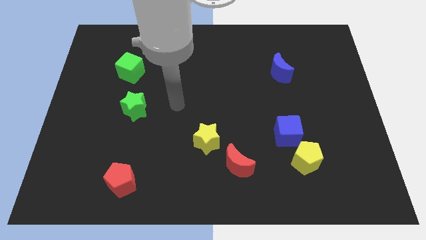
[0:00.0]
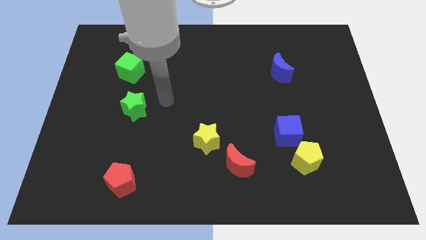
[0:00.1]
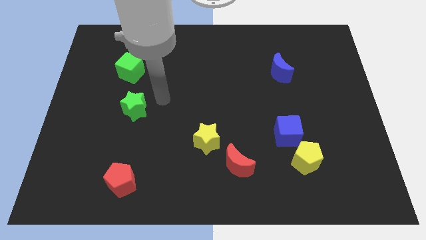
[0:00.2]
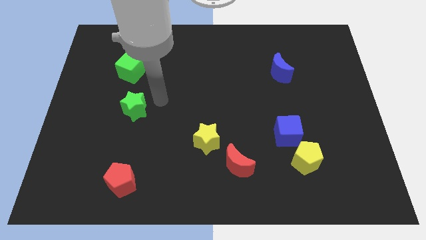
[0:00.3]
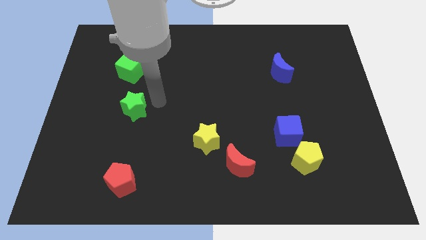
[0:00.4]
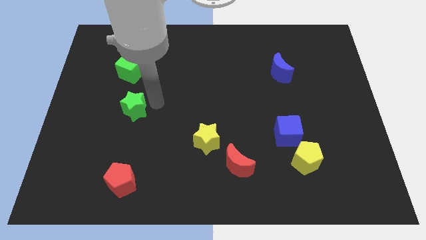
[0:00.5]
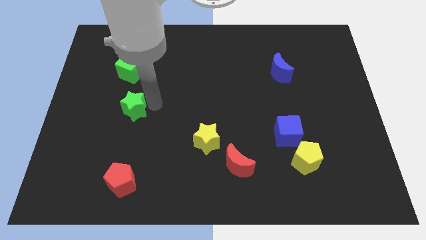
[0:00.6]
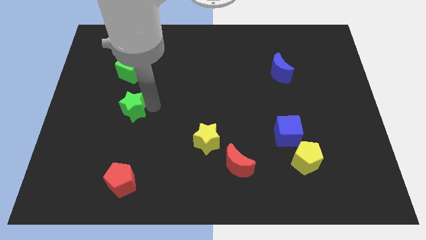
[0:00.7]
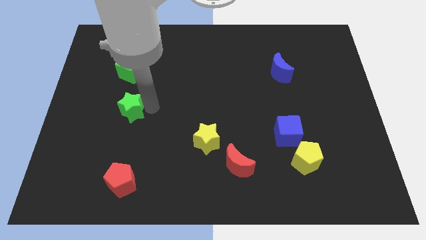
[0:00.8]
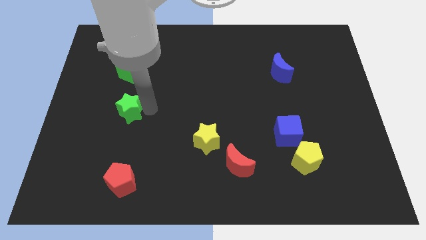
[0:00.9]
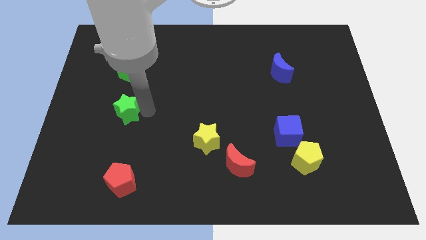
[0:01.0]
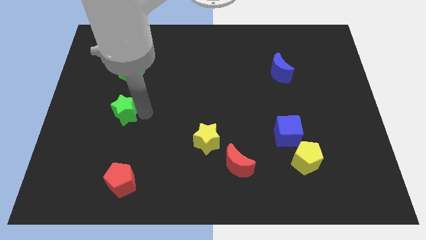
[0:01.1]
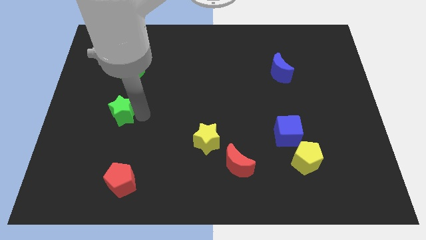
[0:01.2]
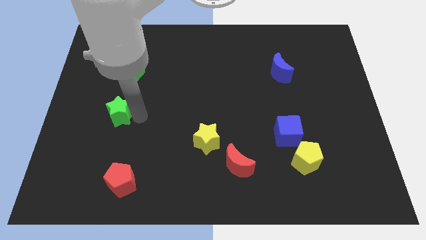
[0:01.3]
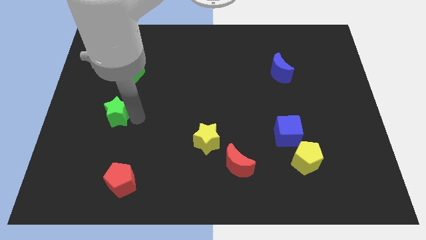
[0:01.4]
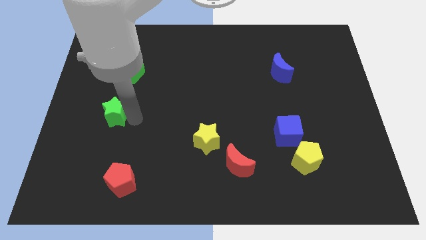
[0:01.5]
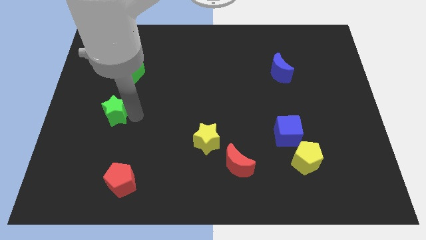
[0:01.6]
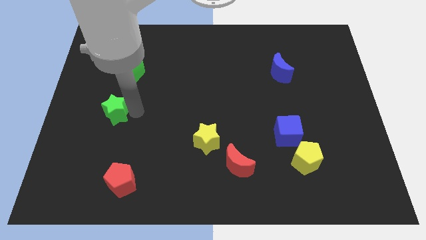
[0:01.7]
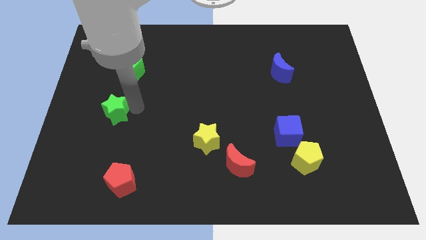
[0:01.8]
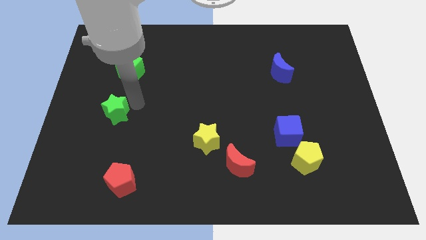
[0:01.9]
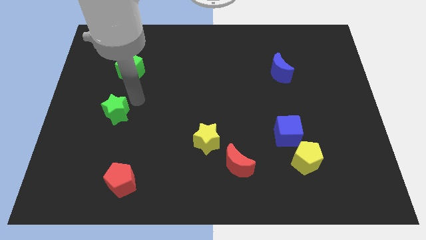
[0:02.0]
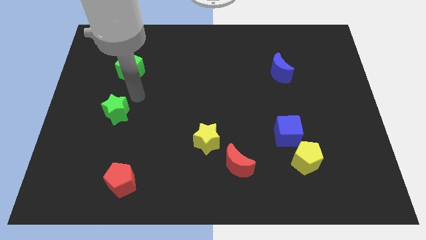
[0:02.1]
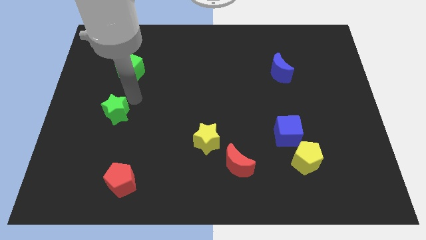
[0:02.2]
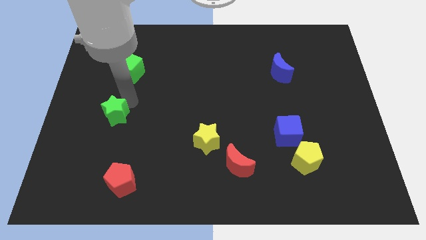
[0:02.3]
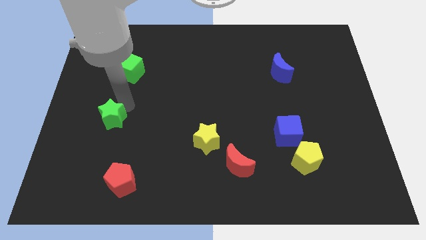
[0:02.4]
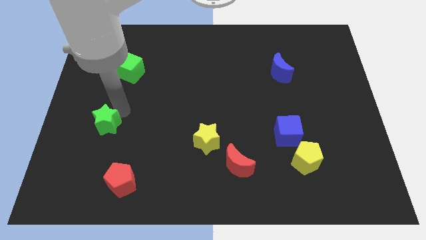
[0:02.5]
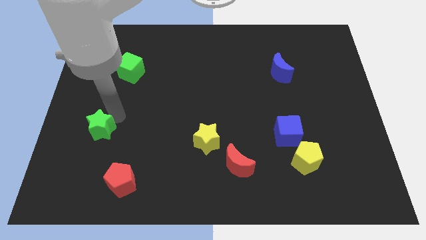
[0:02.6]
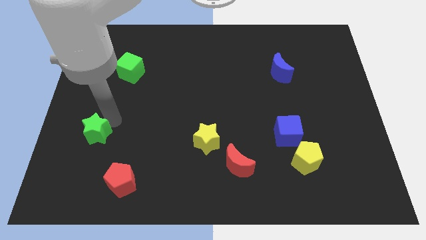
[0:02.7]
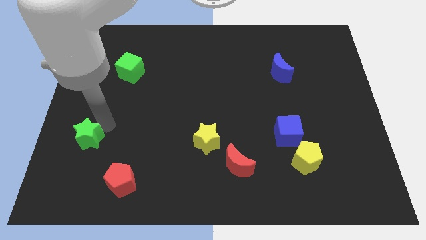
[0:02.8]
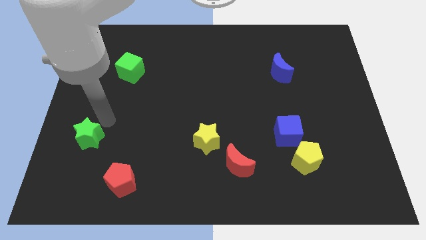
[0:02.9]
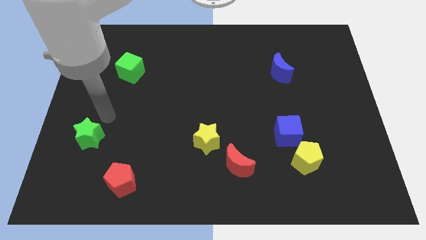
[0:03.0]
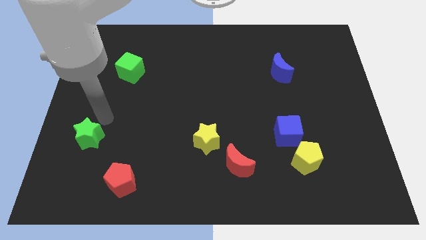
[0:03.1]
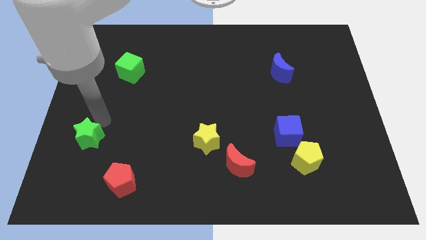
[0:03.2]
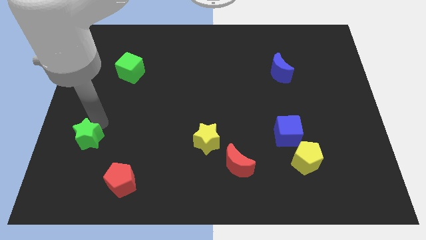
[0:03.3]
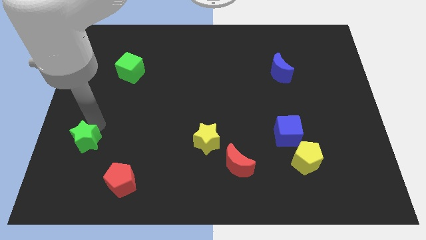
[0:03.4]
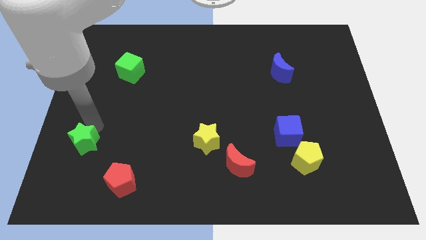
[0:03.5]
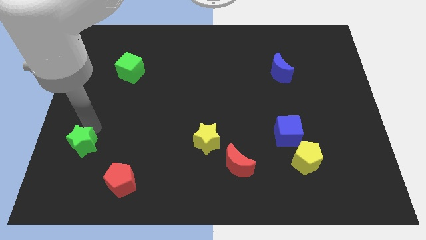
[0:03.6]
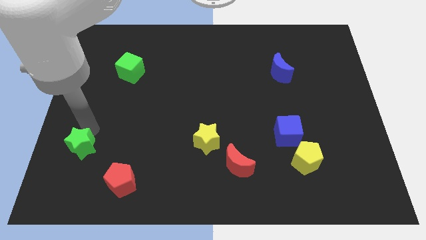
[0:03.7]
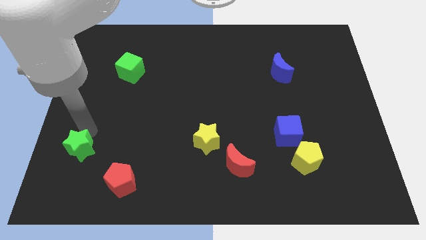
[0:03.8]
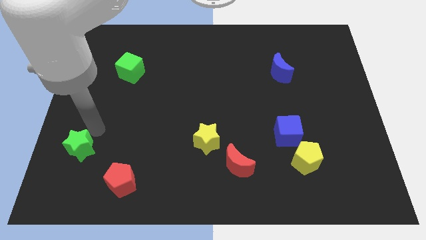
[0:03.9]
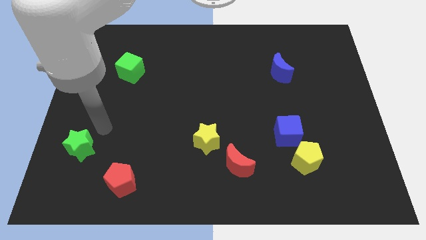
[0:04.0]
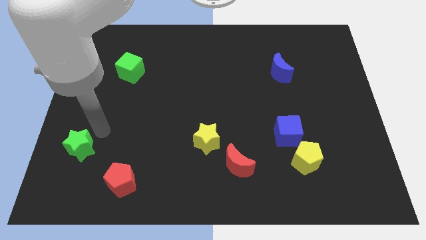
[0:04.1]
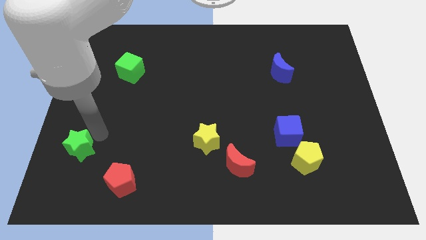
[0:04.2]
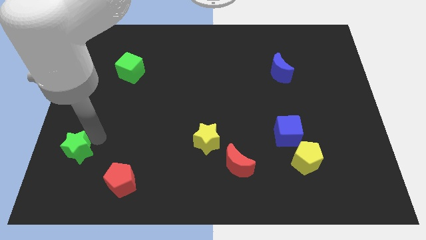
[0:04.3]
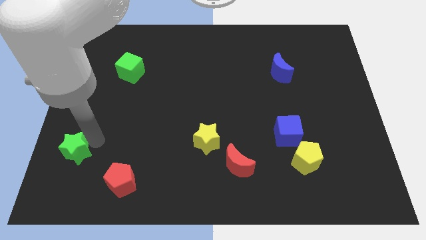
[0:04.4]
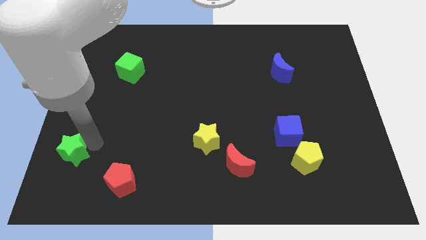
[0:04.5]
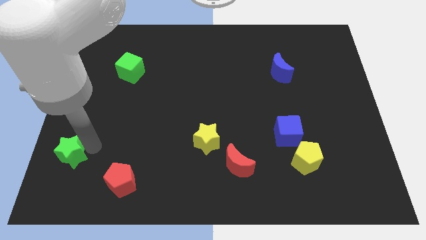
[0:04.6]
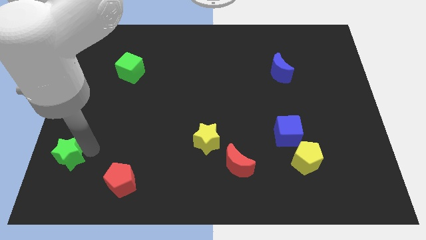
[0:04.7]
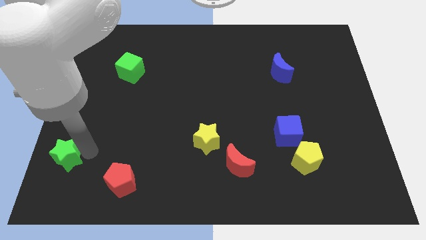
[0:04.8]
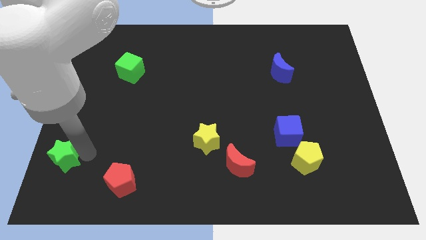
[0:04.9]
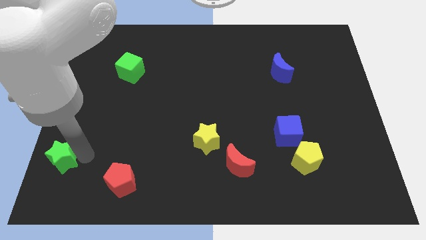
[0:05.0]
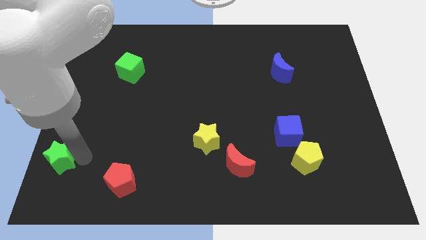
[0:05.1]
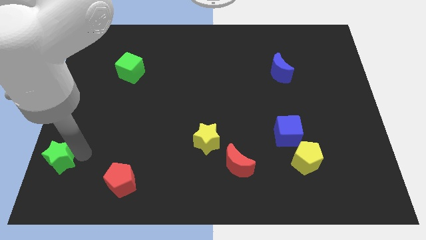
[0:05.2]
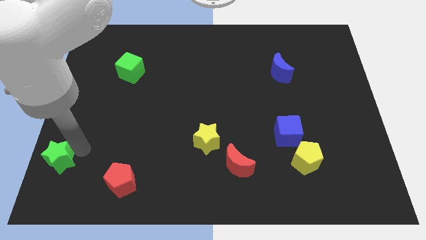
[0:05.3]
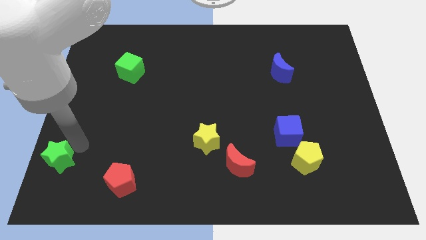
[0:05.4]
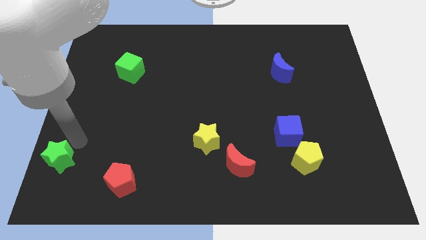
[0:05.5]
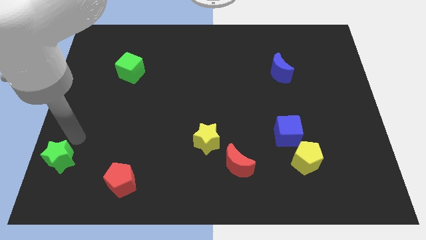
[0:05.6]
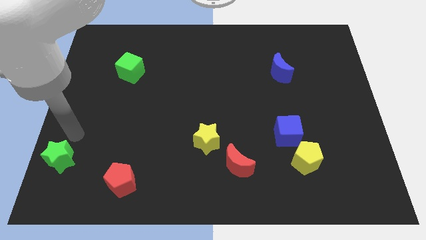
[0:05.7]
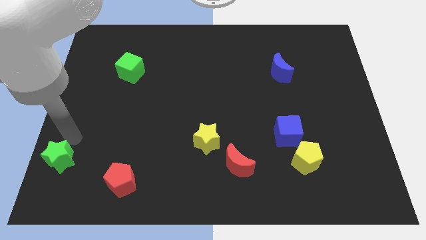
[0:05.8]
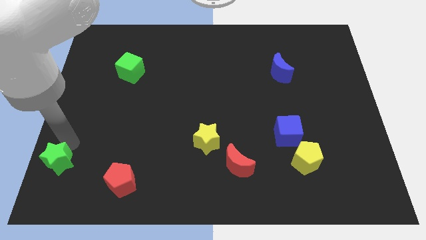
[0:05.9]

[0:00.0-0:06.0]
push the green star to the bottom left
